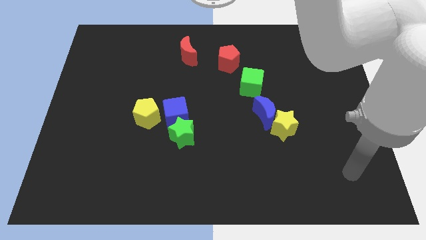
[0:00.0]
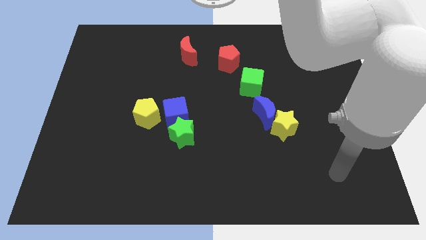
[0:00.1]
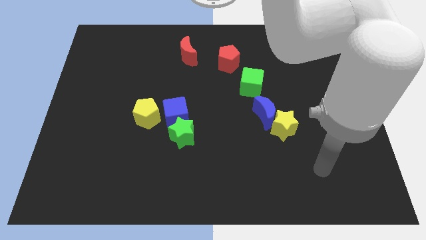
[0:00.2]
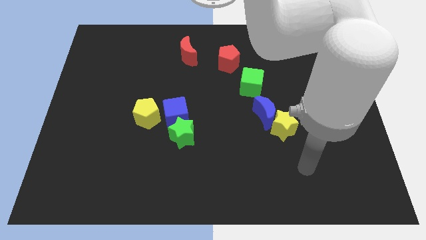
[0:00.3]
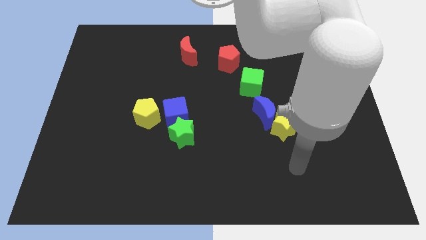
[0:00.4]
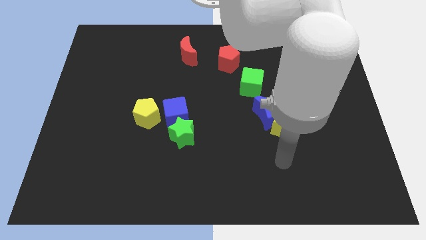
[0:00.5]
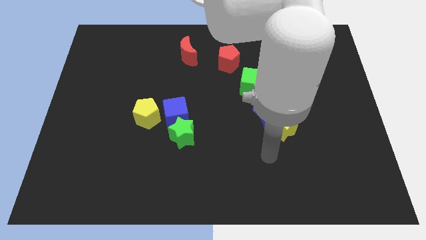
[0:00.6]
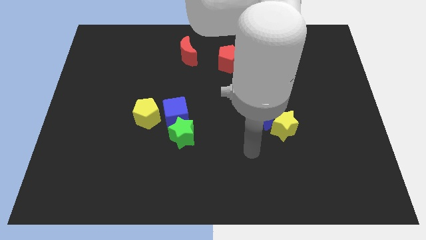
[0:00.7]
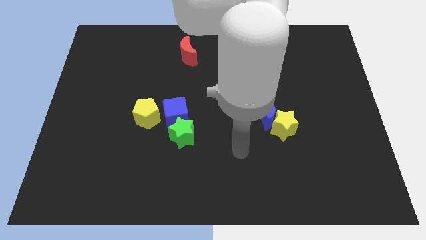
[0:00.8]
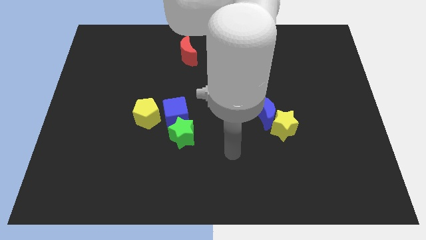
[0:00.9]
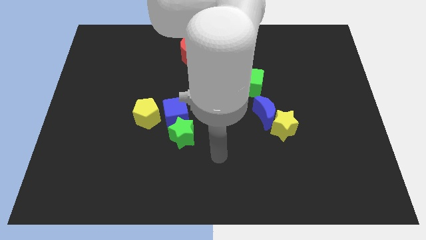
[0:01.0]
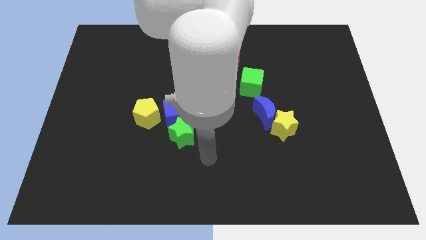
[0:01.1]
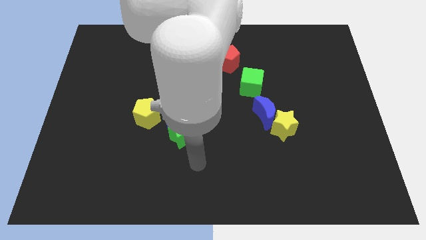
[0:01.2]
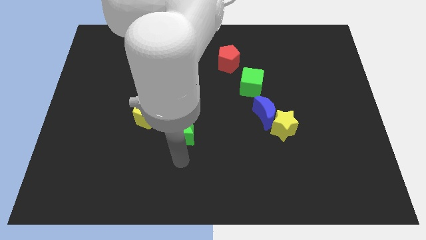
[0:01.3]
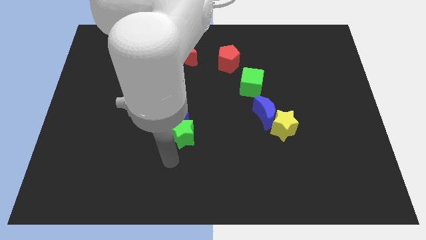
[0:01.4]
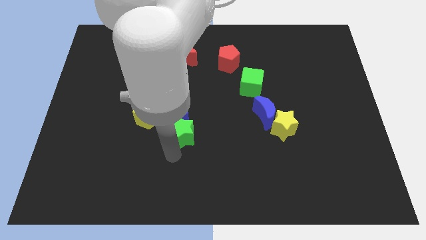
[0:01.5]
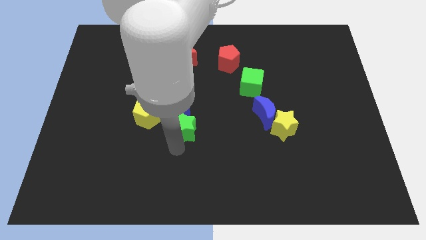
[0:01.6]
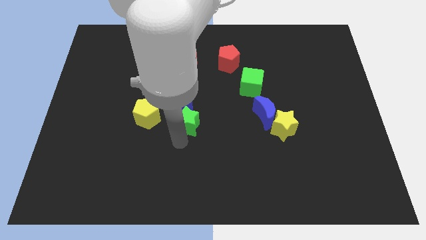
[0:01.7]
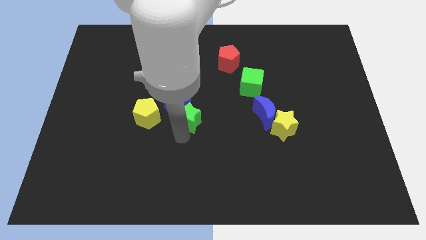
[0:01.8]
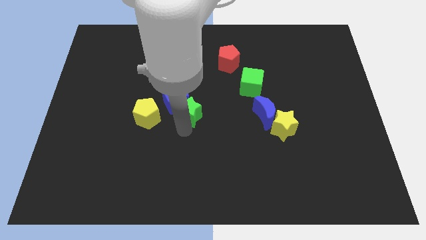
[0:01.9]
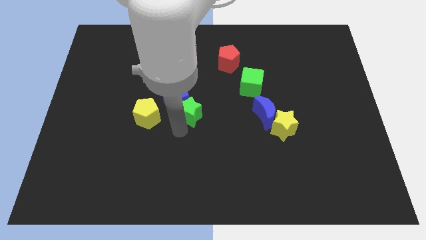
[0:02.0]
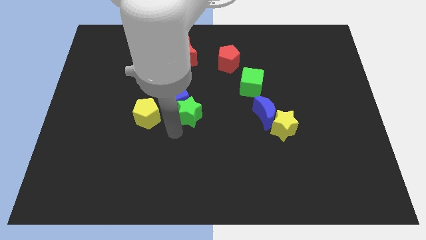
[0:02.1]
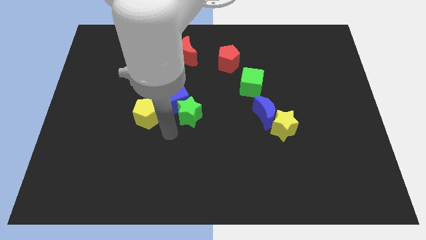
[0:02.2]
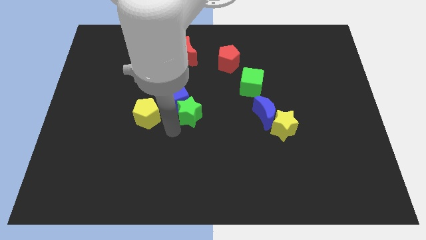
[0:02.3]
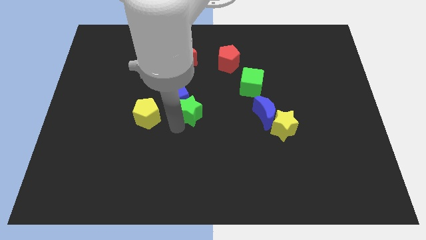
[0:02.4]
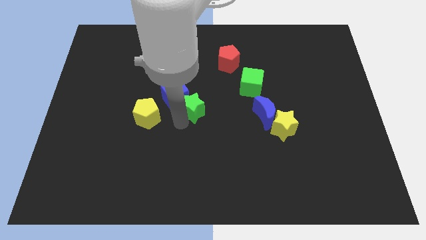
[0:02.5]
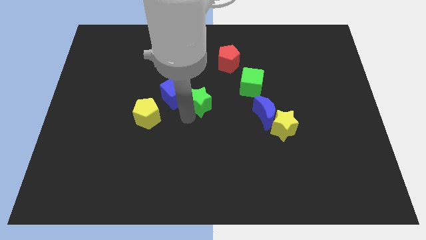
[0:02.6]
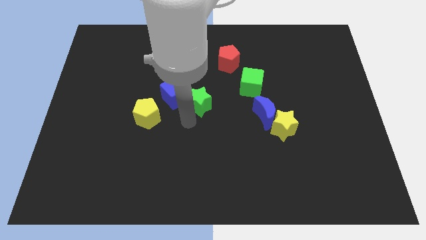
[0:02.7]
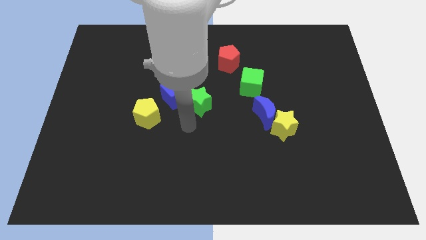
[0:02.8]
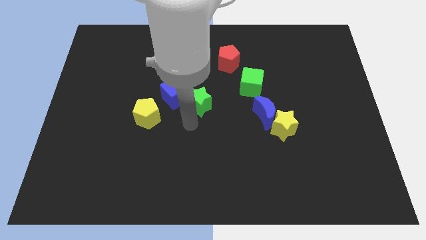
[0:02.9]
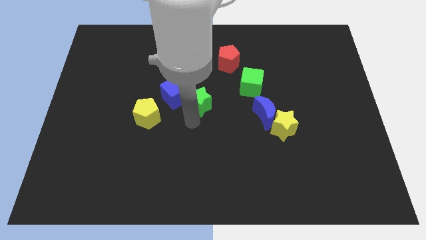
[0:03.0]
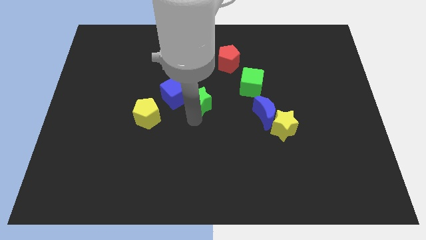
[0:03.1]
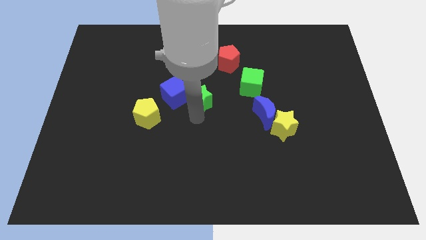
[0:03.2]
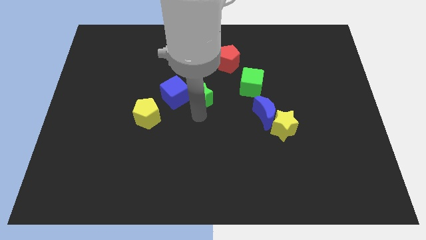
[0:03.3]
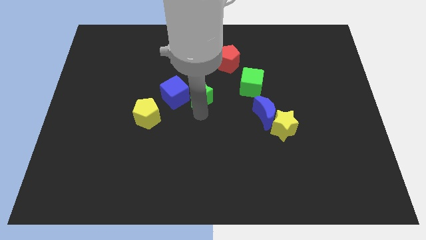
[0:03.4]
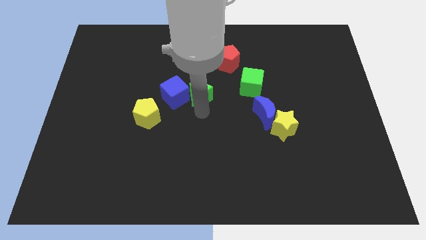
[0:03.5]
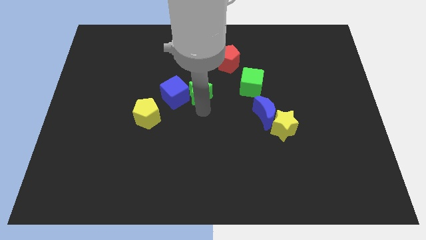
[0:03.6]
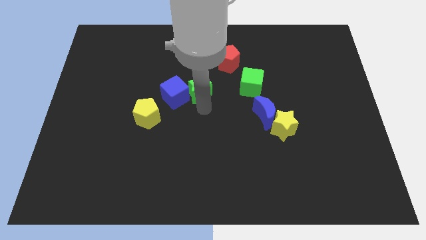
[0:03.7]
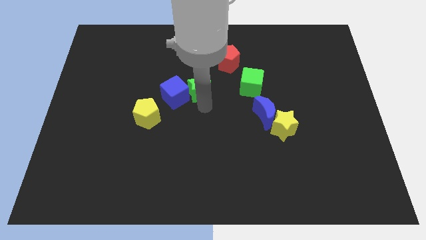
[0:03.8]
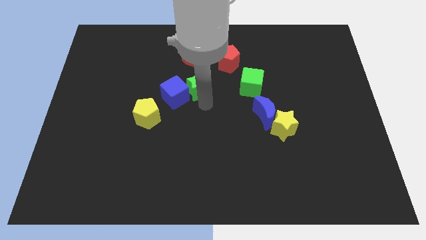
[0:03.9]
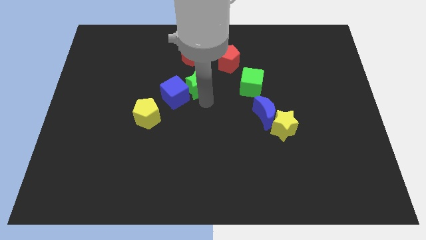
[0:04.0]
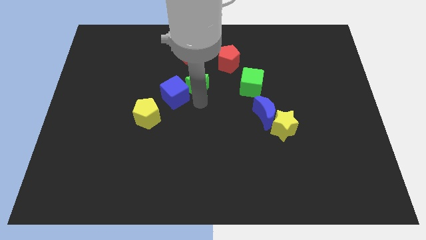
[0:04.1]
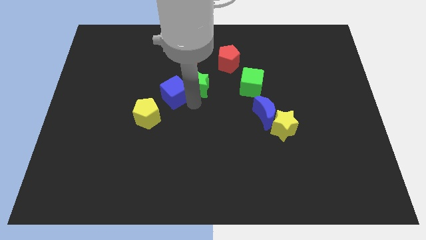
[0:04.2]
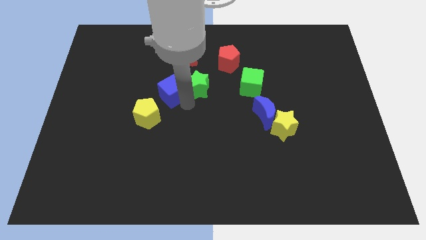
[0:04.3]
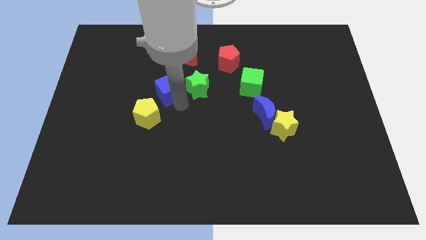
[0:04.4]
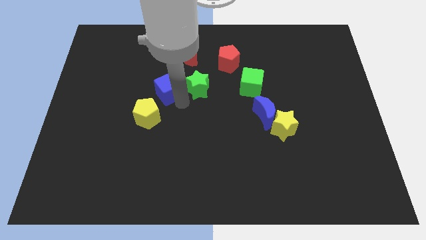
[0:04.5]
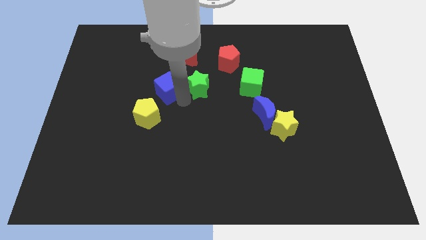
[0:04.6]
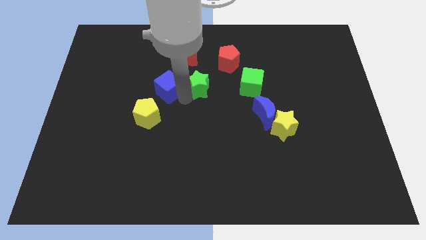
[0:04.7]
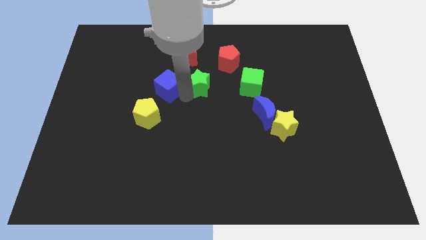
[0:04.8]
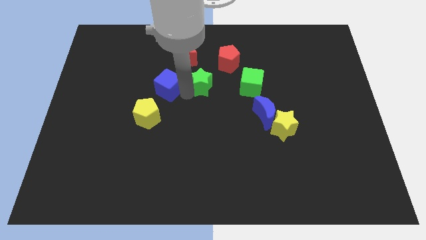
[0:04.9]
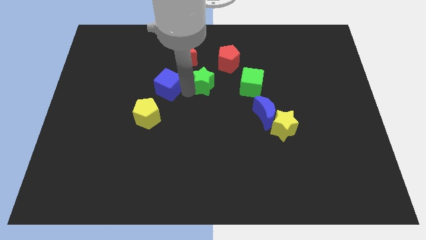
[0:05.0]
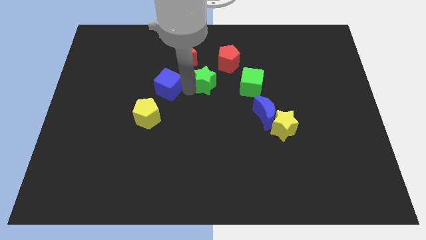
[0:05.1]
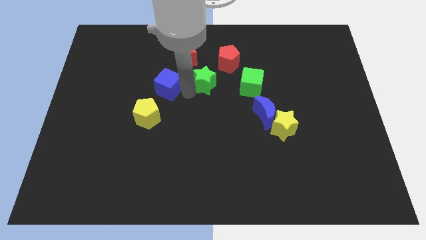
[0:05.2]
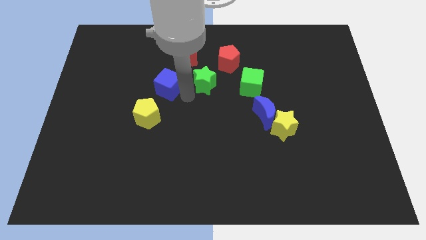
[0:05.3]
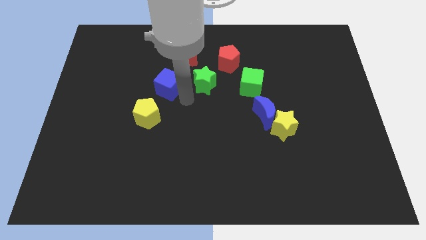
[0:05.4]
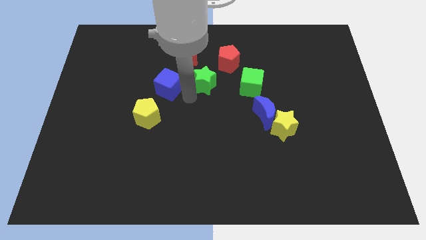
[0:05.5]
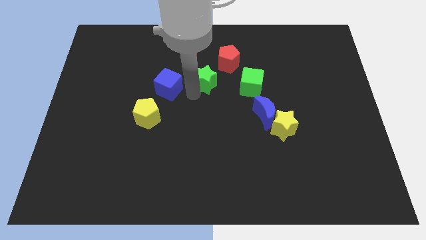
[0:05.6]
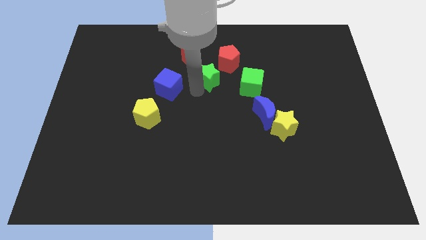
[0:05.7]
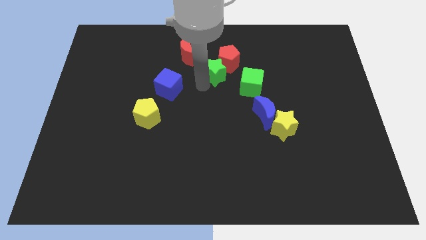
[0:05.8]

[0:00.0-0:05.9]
put the green star close to the red pentagon

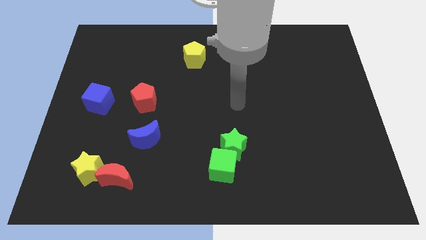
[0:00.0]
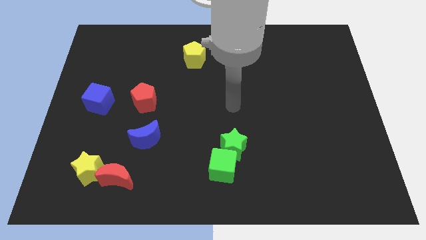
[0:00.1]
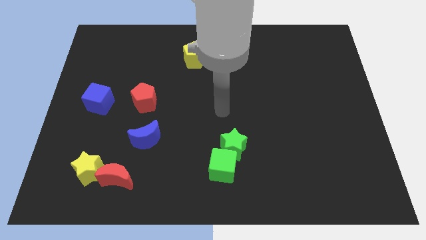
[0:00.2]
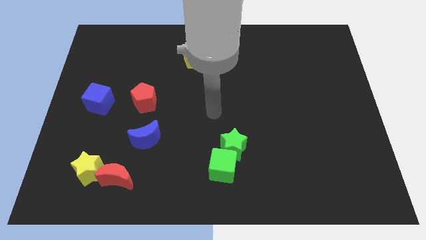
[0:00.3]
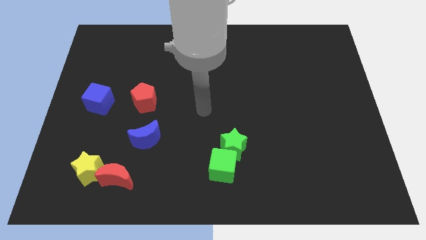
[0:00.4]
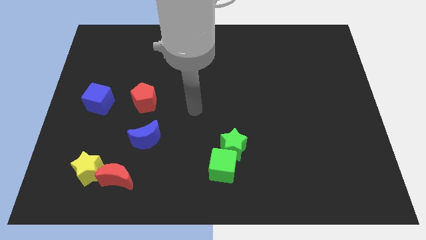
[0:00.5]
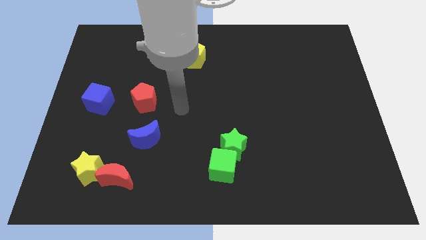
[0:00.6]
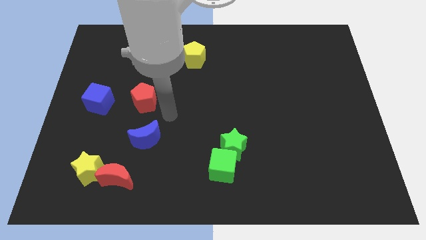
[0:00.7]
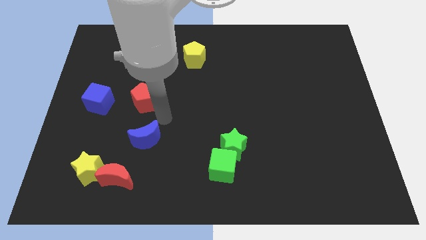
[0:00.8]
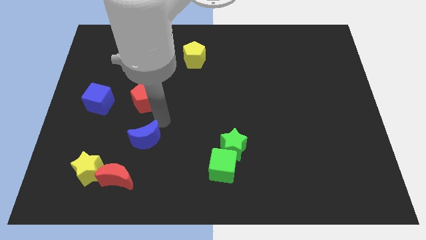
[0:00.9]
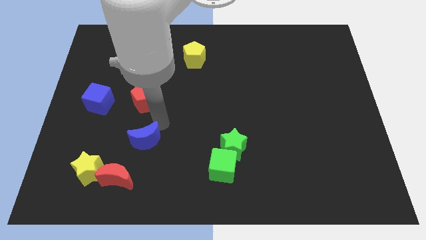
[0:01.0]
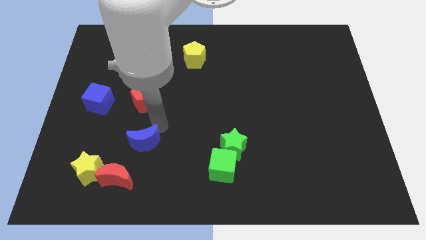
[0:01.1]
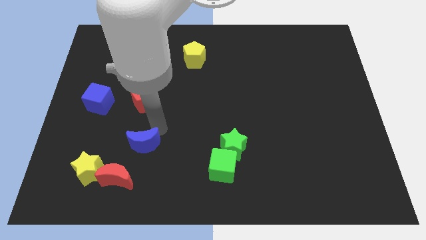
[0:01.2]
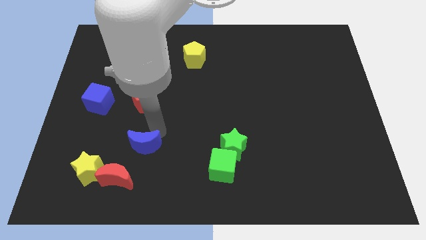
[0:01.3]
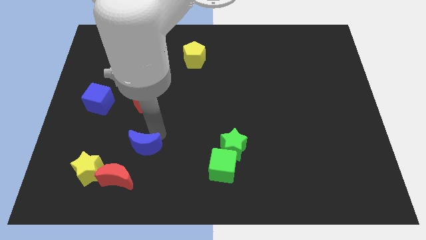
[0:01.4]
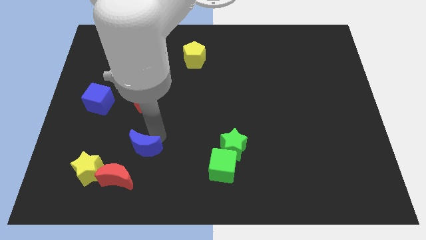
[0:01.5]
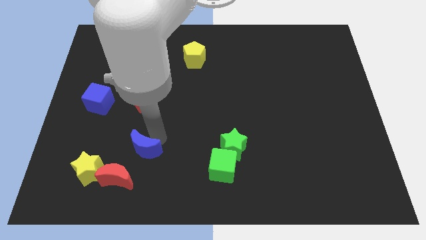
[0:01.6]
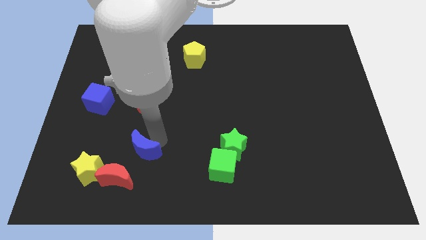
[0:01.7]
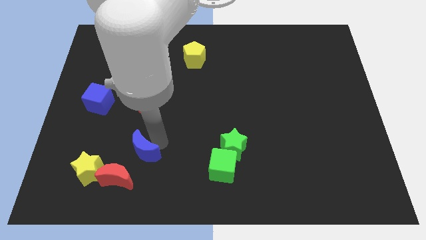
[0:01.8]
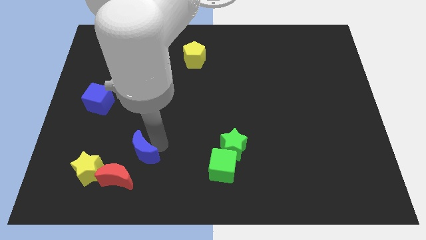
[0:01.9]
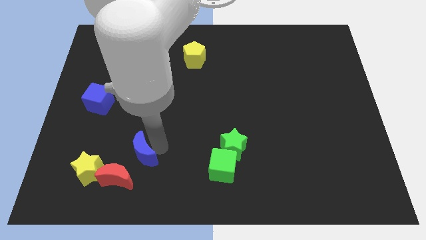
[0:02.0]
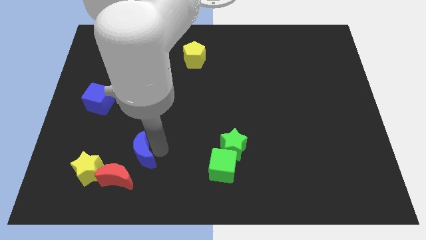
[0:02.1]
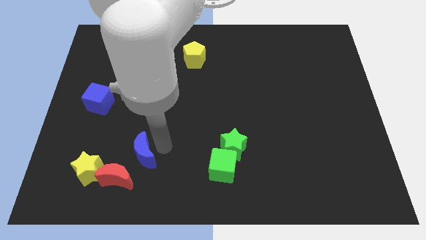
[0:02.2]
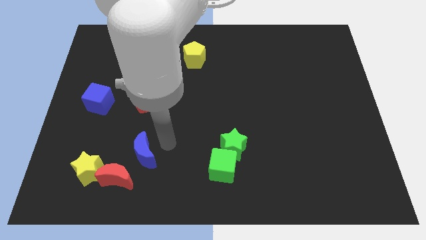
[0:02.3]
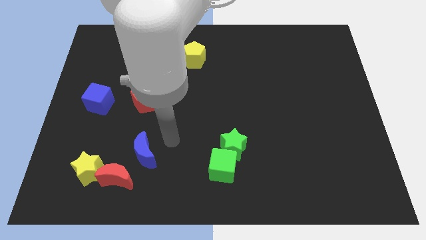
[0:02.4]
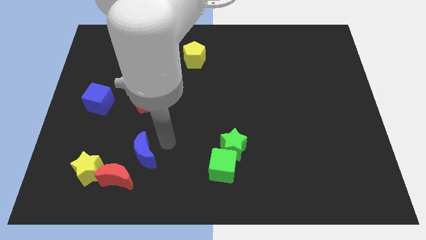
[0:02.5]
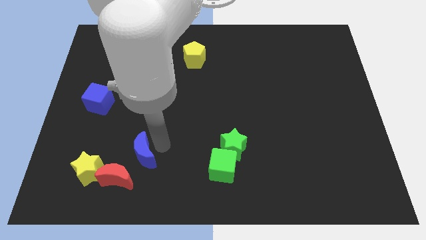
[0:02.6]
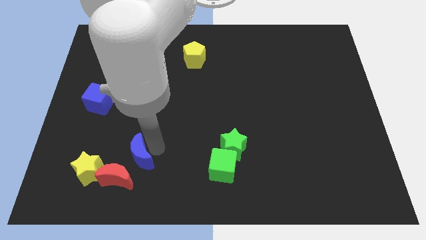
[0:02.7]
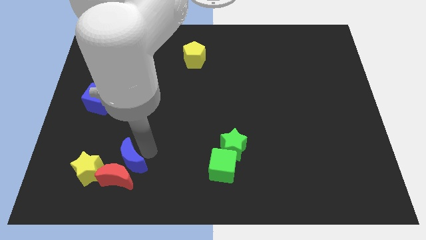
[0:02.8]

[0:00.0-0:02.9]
put the blue moon to the red moon
